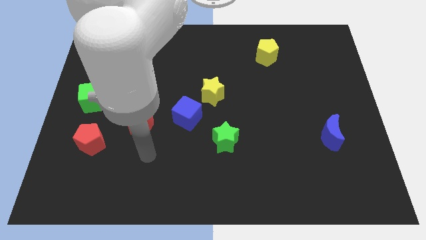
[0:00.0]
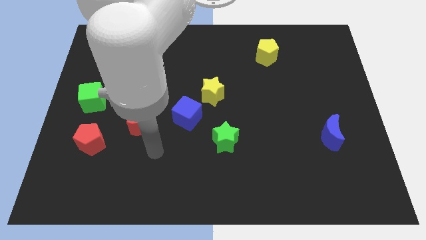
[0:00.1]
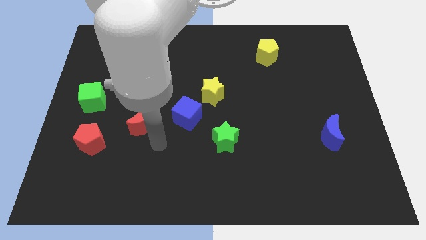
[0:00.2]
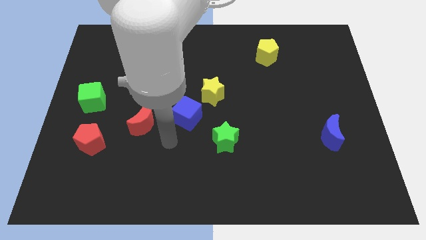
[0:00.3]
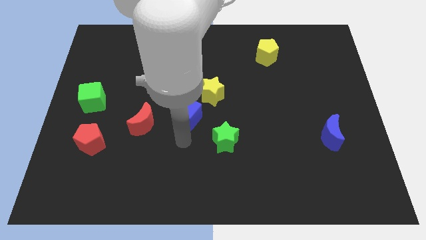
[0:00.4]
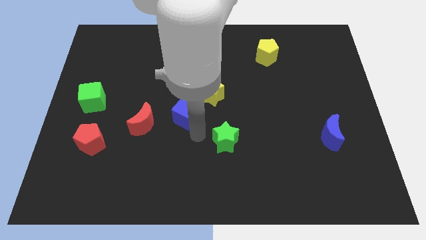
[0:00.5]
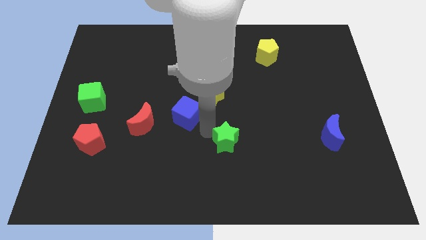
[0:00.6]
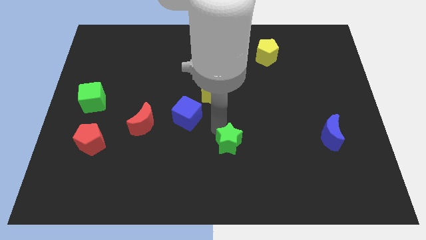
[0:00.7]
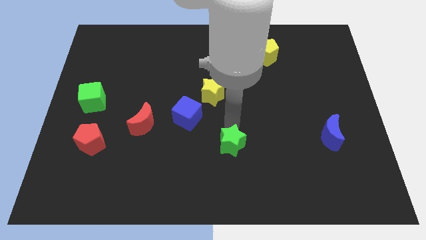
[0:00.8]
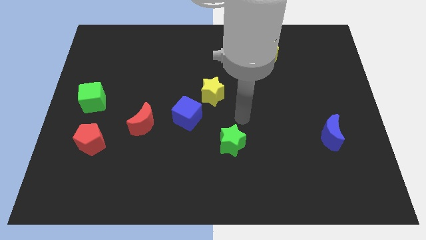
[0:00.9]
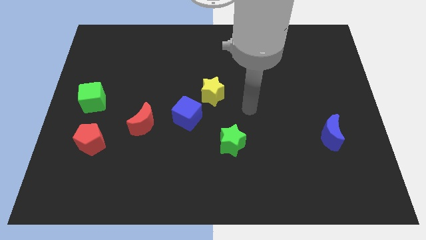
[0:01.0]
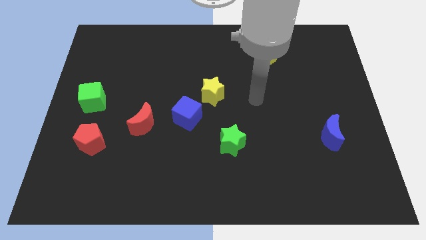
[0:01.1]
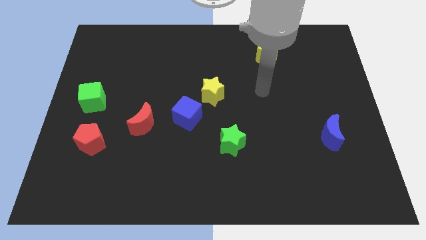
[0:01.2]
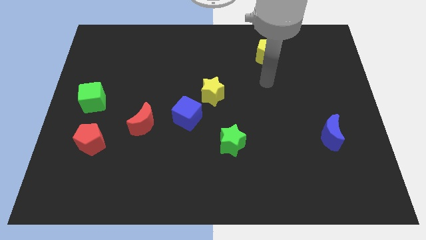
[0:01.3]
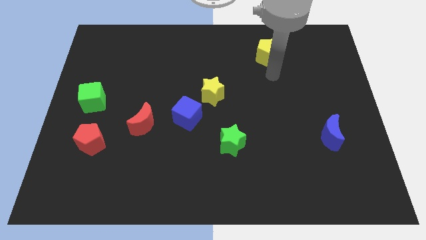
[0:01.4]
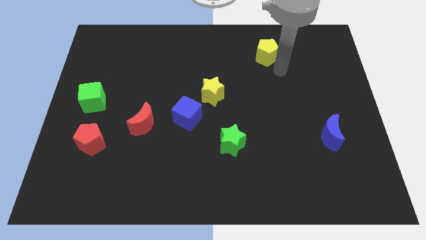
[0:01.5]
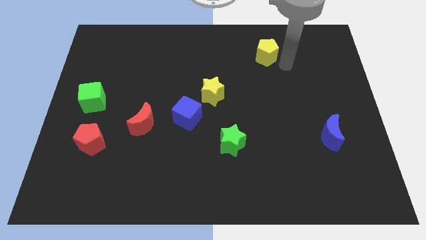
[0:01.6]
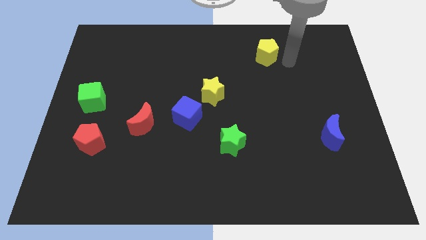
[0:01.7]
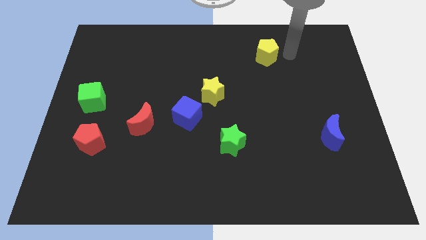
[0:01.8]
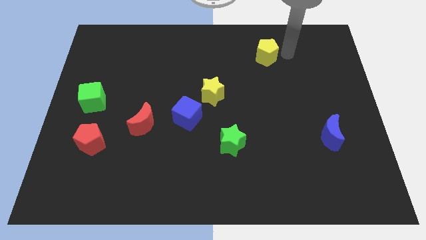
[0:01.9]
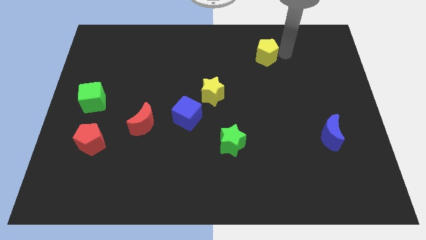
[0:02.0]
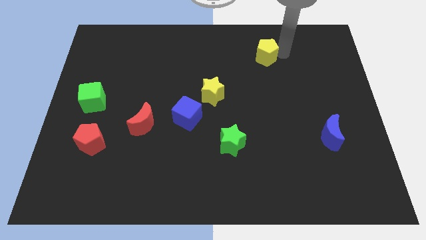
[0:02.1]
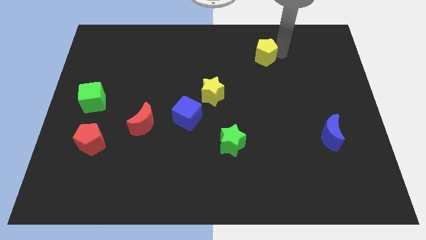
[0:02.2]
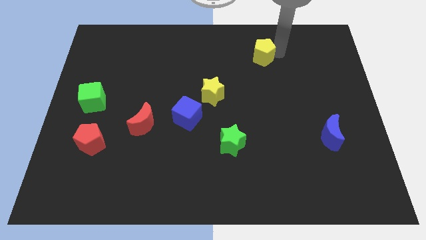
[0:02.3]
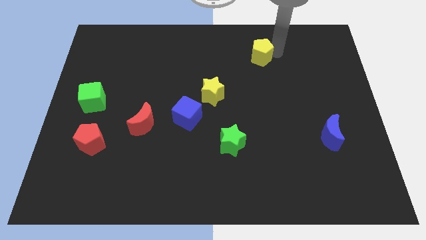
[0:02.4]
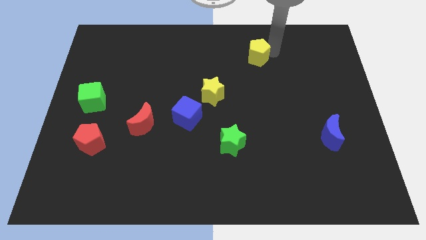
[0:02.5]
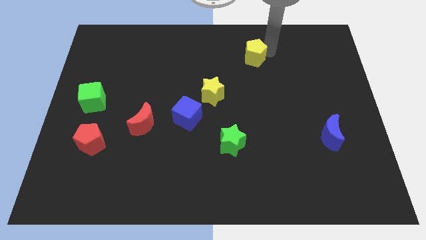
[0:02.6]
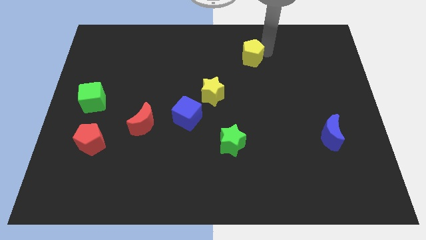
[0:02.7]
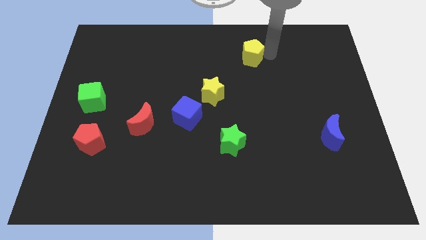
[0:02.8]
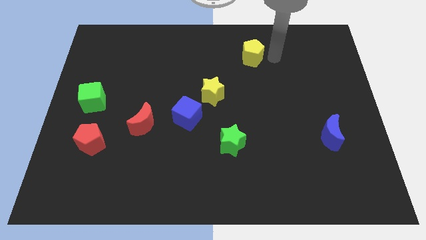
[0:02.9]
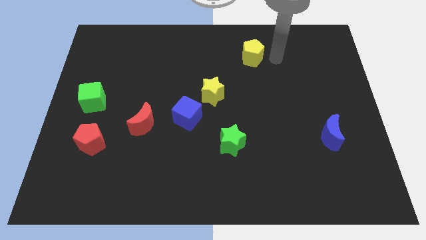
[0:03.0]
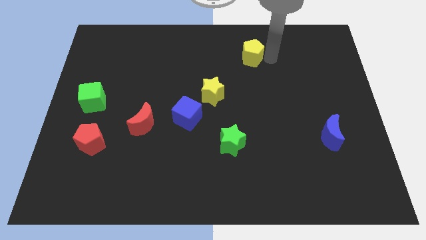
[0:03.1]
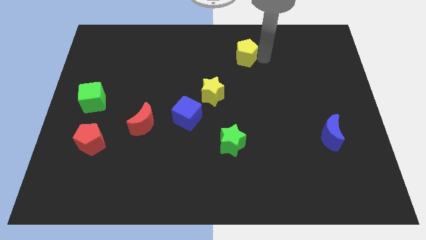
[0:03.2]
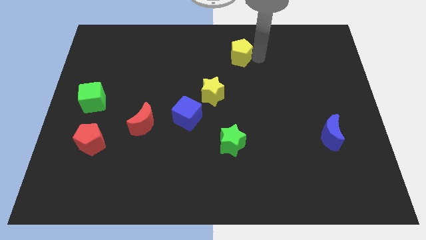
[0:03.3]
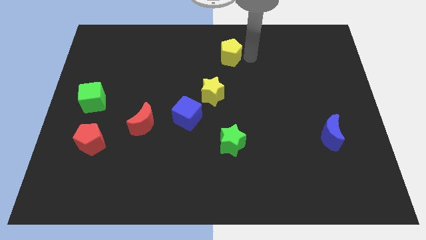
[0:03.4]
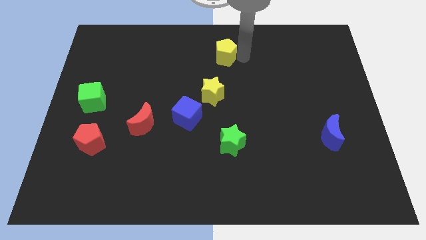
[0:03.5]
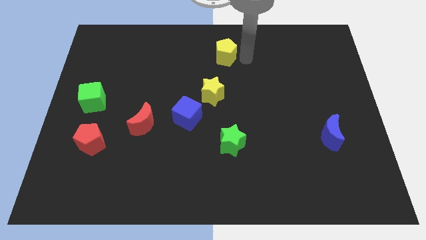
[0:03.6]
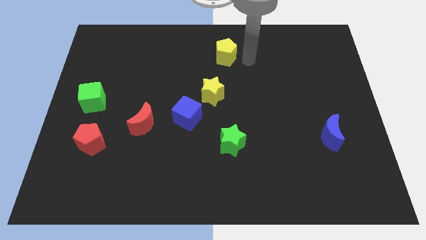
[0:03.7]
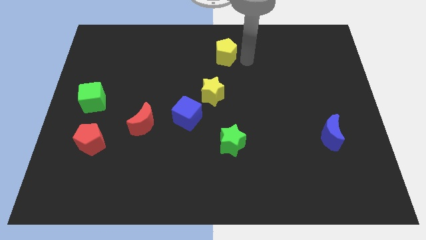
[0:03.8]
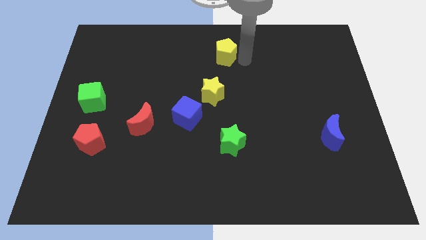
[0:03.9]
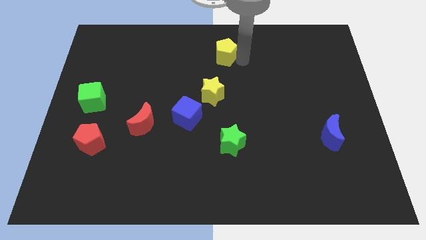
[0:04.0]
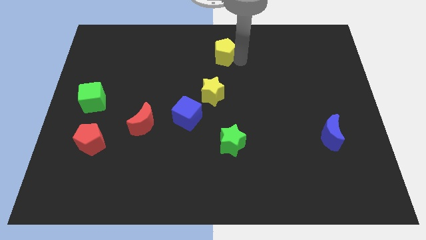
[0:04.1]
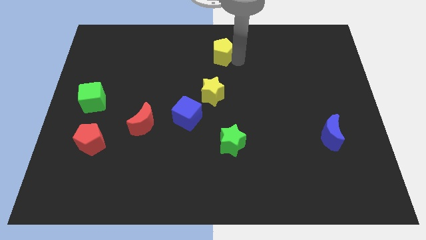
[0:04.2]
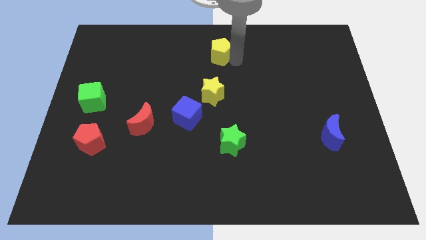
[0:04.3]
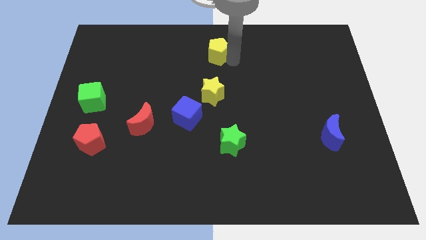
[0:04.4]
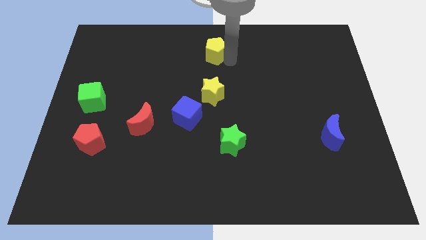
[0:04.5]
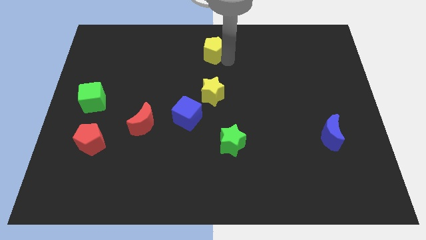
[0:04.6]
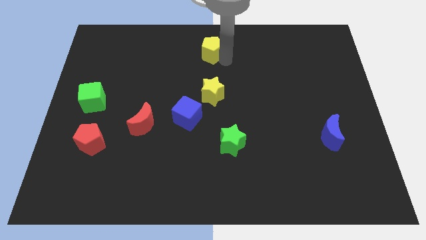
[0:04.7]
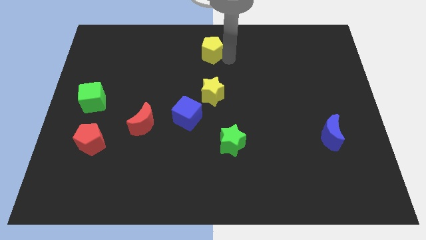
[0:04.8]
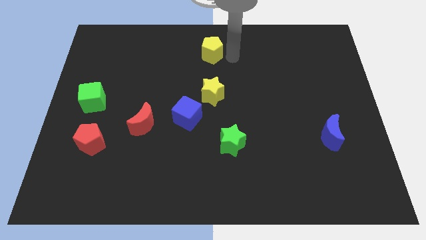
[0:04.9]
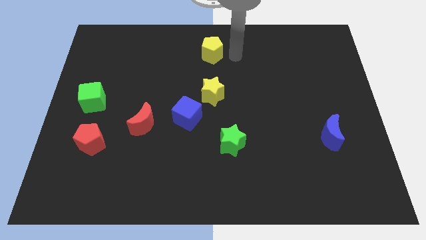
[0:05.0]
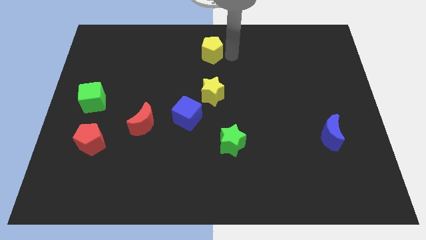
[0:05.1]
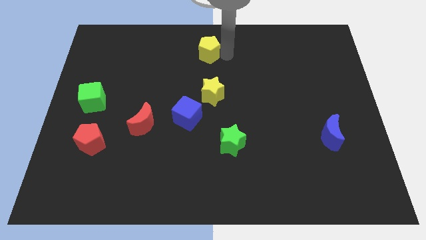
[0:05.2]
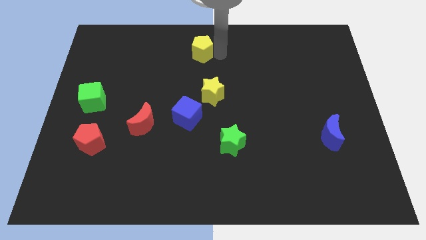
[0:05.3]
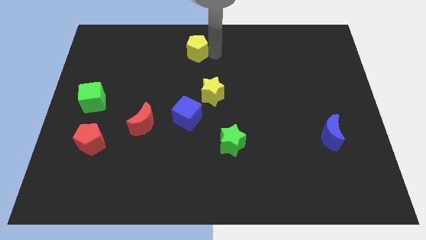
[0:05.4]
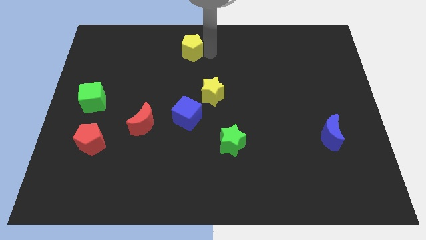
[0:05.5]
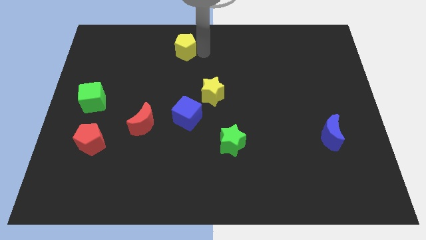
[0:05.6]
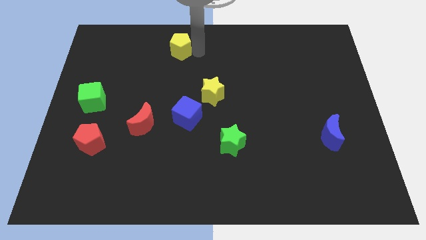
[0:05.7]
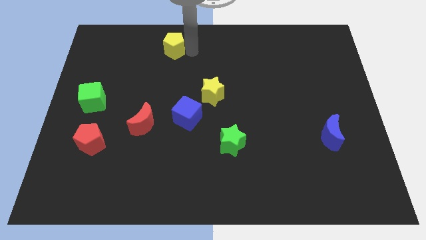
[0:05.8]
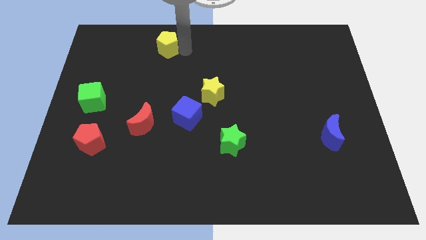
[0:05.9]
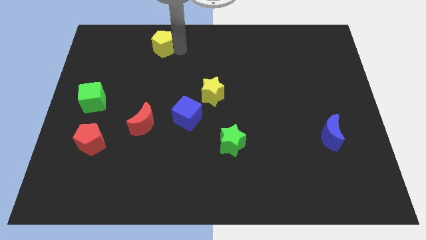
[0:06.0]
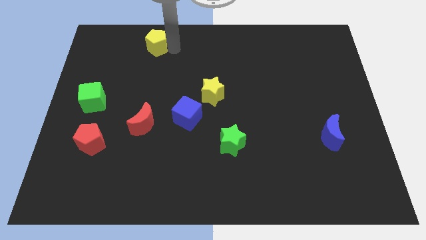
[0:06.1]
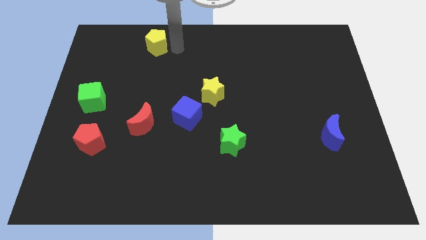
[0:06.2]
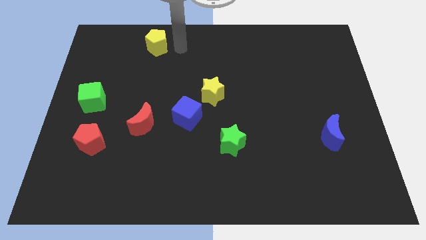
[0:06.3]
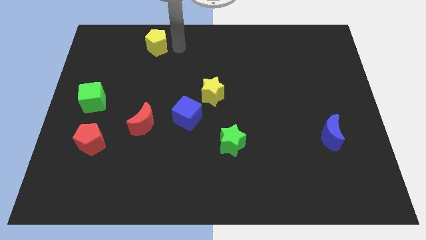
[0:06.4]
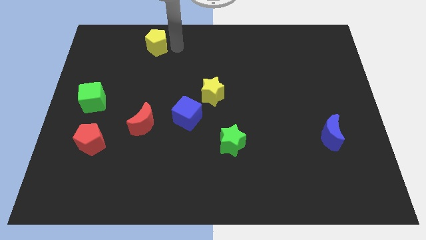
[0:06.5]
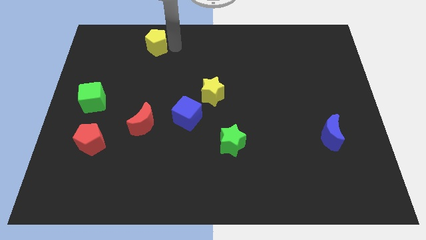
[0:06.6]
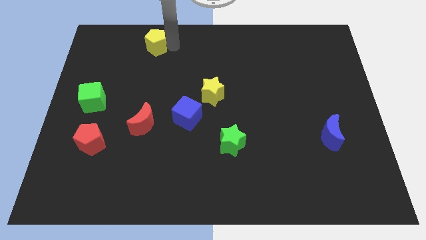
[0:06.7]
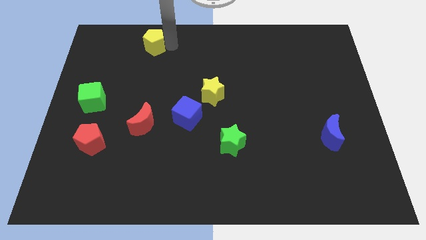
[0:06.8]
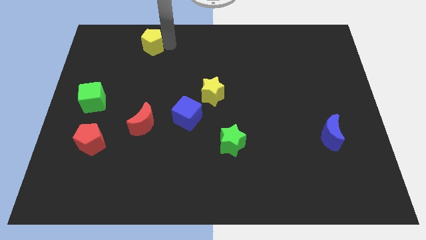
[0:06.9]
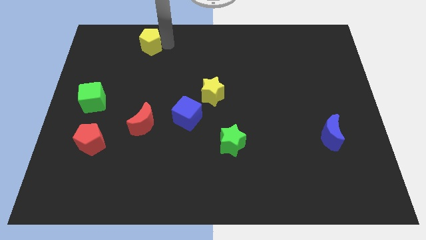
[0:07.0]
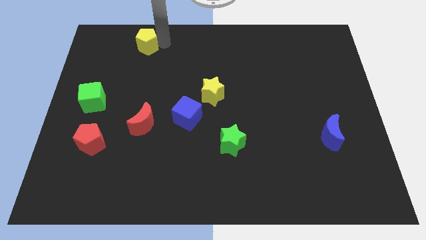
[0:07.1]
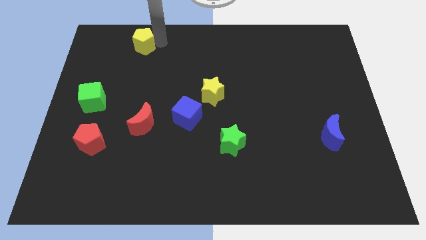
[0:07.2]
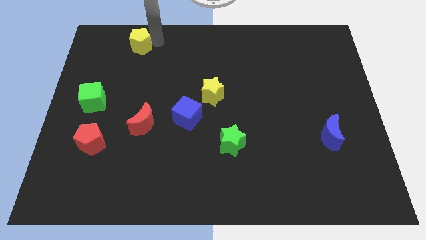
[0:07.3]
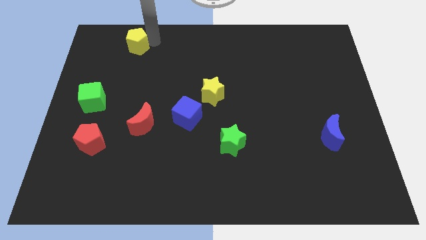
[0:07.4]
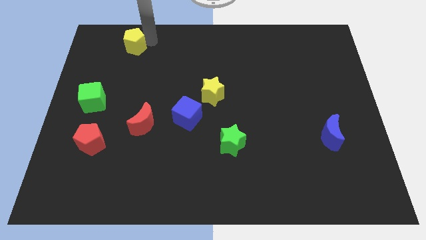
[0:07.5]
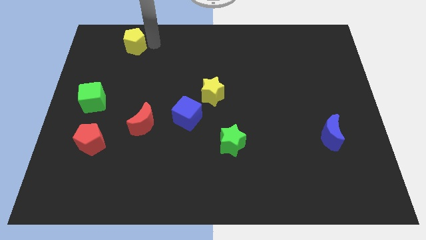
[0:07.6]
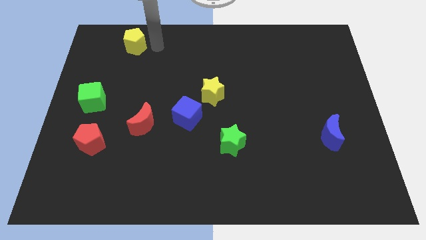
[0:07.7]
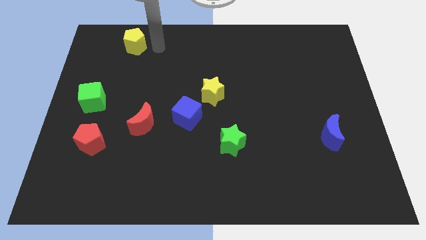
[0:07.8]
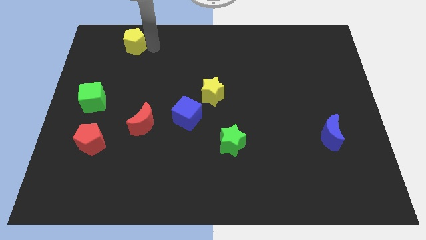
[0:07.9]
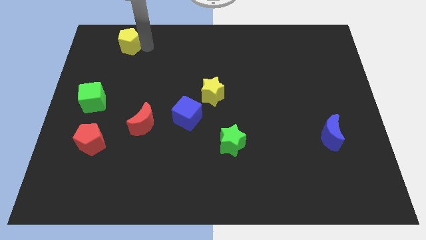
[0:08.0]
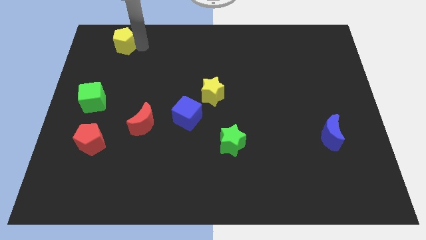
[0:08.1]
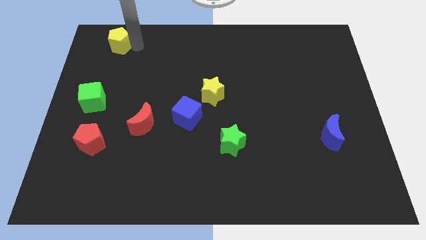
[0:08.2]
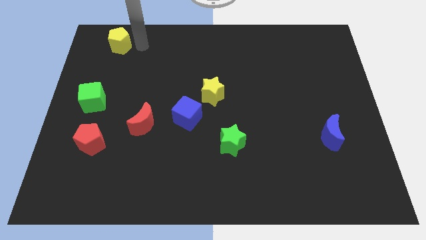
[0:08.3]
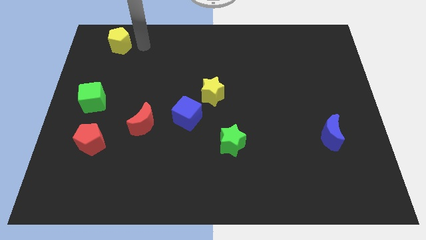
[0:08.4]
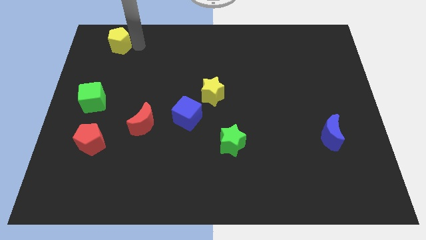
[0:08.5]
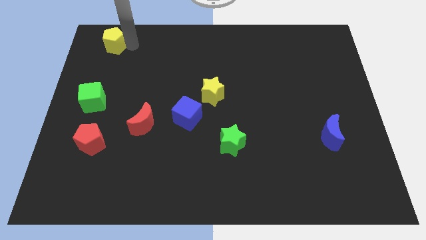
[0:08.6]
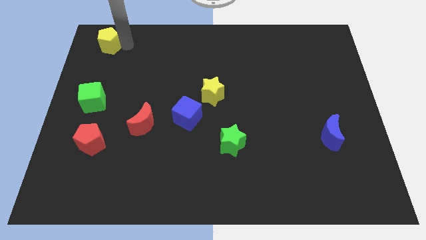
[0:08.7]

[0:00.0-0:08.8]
push the yellow pentagon to the top left
